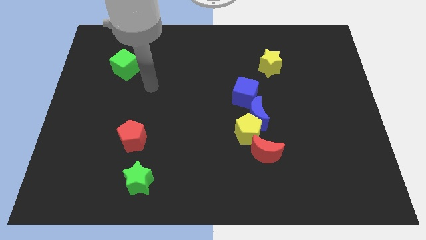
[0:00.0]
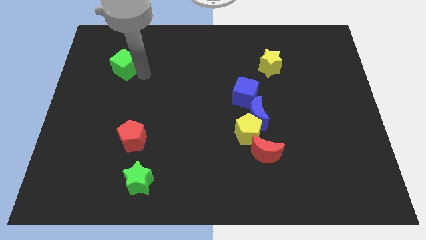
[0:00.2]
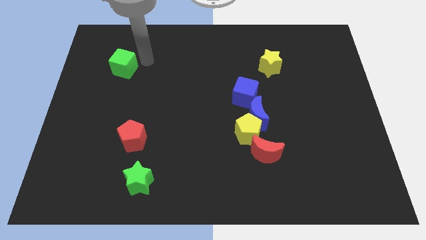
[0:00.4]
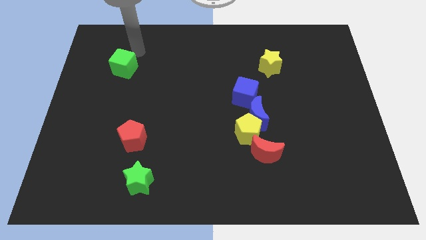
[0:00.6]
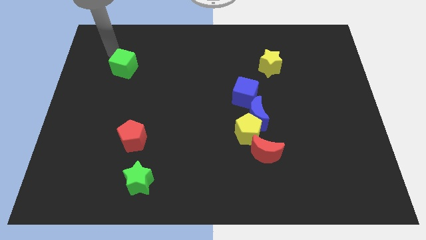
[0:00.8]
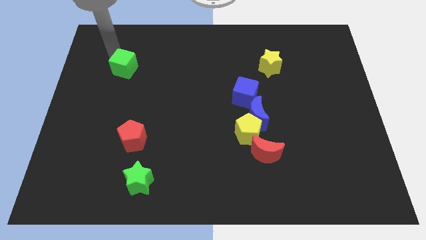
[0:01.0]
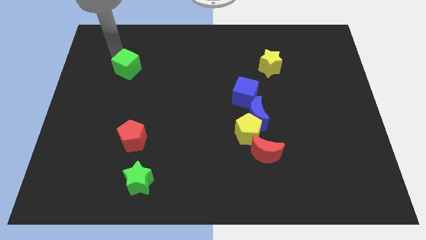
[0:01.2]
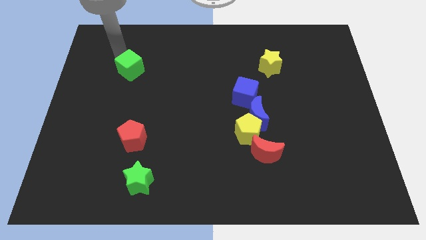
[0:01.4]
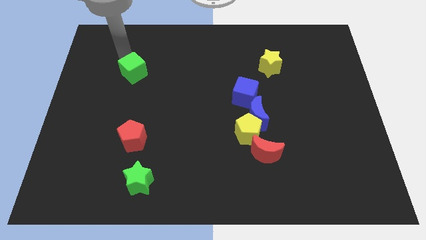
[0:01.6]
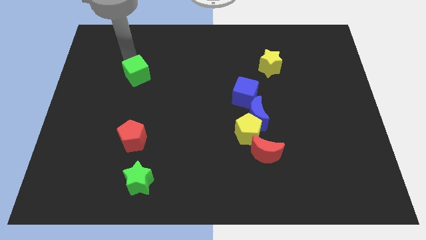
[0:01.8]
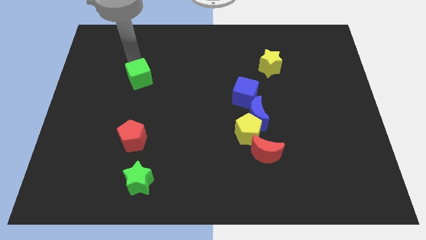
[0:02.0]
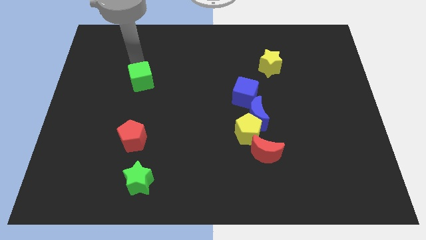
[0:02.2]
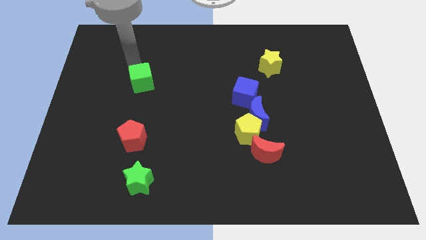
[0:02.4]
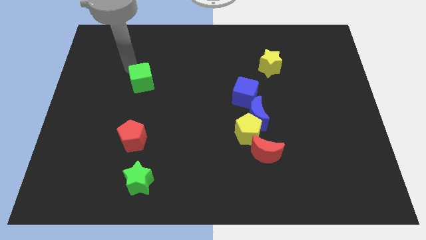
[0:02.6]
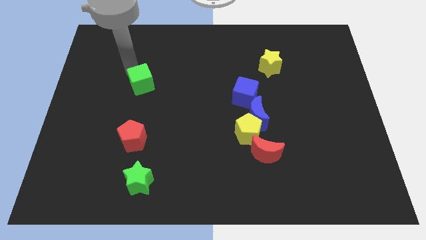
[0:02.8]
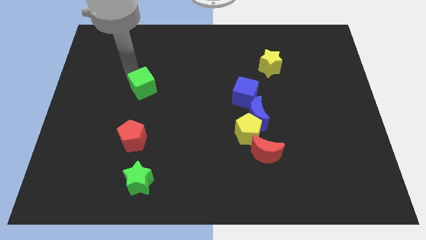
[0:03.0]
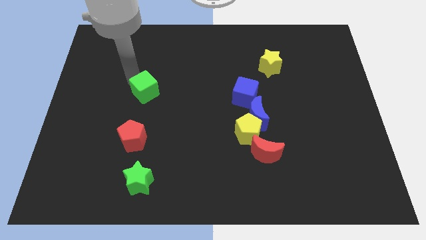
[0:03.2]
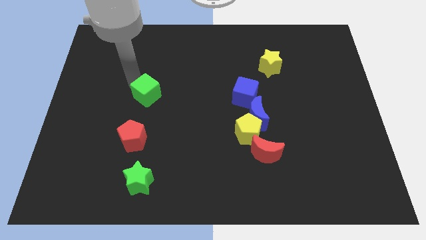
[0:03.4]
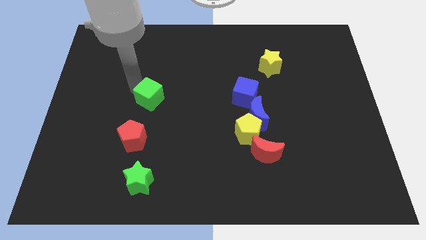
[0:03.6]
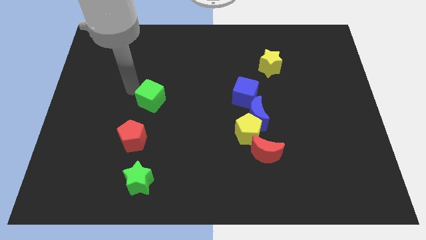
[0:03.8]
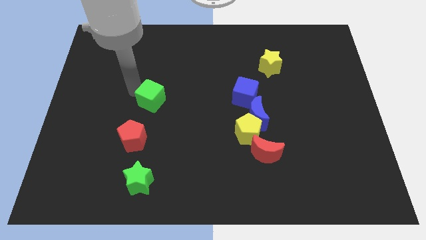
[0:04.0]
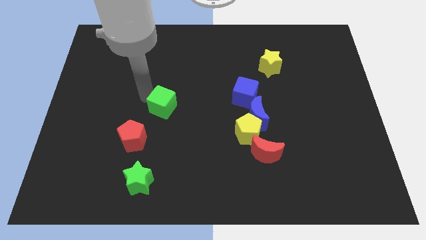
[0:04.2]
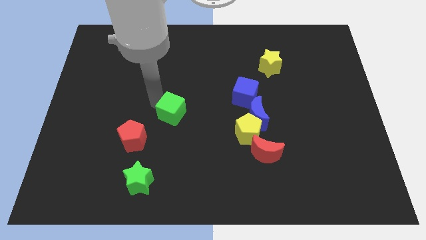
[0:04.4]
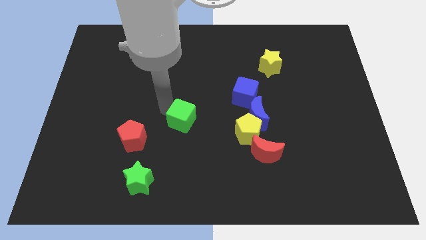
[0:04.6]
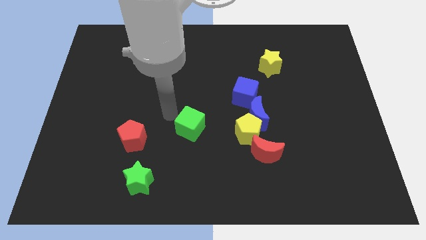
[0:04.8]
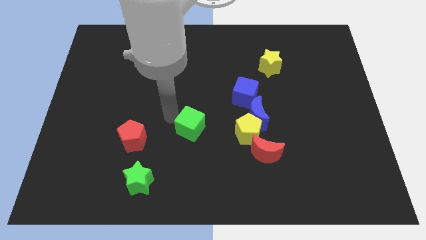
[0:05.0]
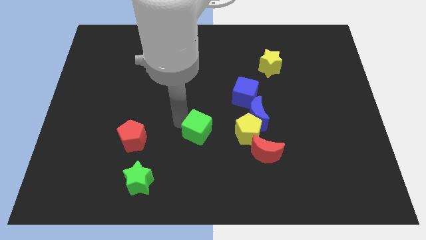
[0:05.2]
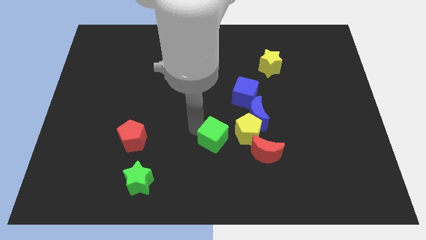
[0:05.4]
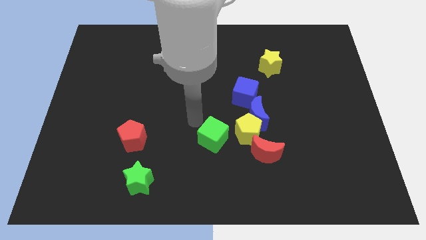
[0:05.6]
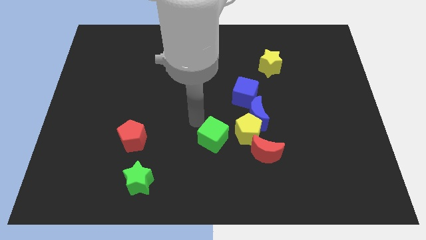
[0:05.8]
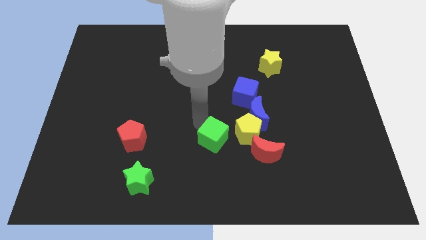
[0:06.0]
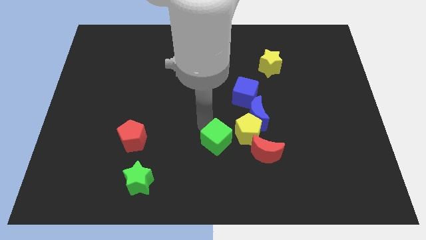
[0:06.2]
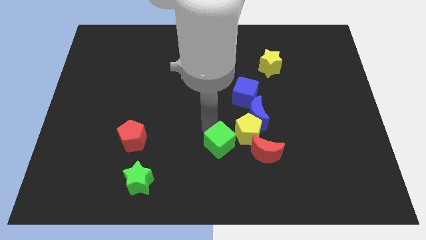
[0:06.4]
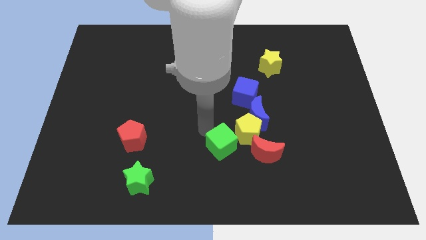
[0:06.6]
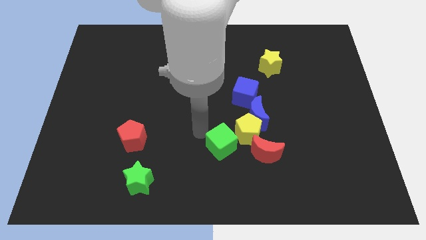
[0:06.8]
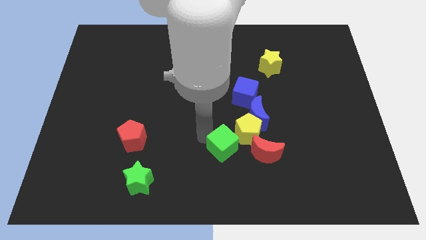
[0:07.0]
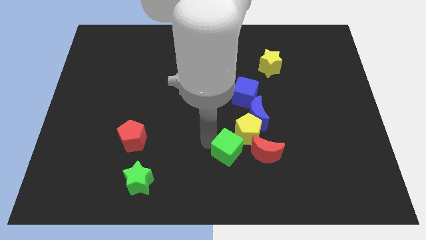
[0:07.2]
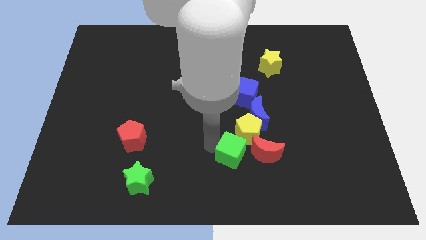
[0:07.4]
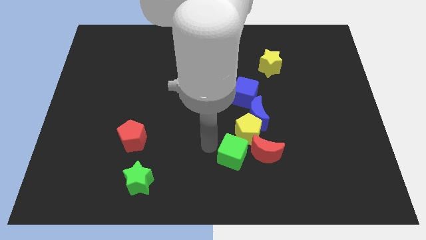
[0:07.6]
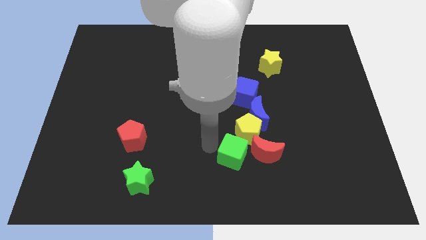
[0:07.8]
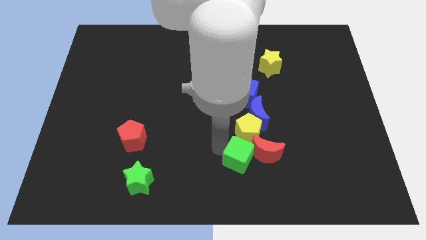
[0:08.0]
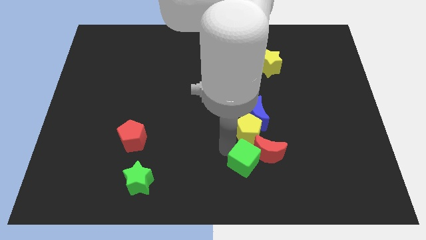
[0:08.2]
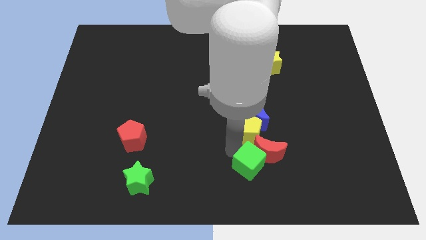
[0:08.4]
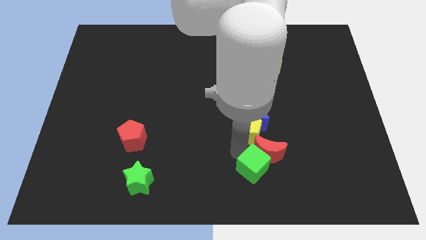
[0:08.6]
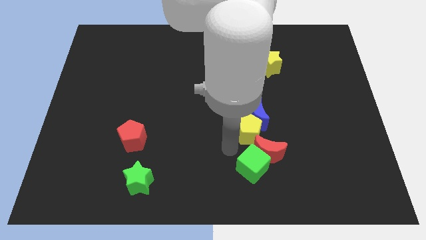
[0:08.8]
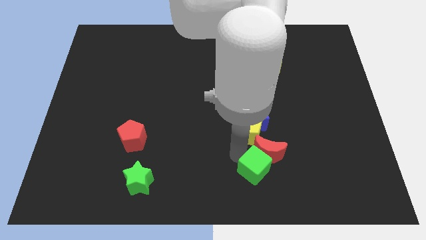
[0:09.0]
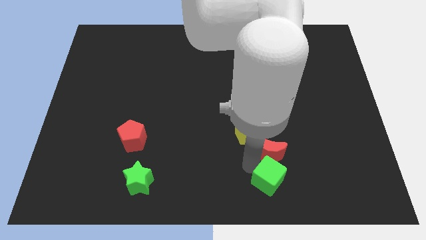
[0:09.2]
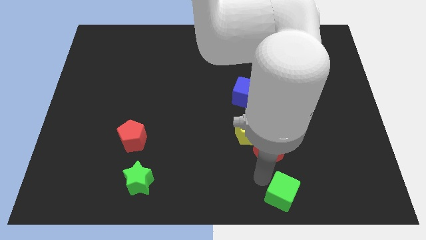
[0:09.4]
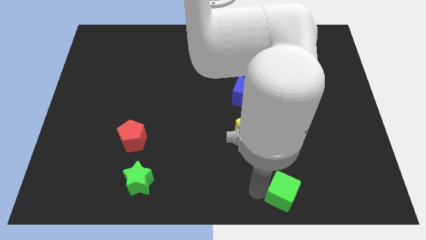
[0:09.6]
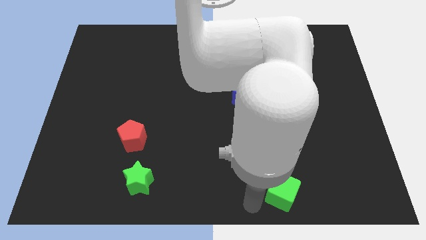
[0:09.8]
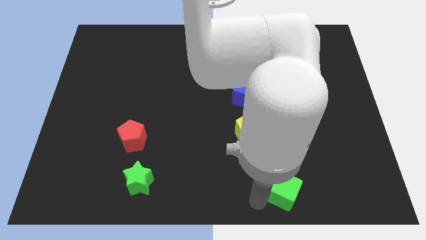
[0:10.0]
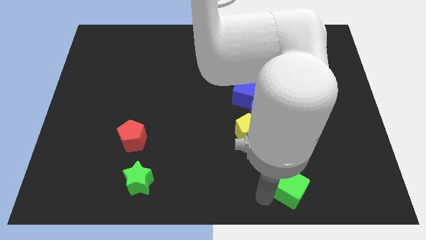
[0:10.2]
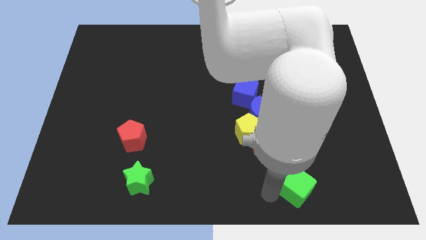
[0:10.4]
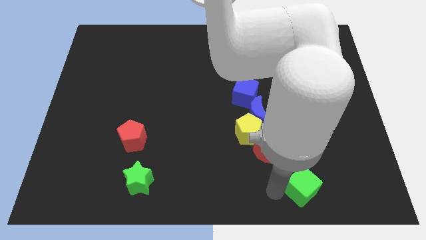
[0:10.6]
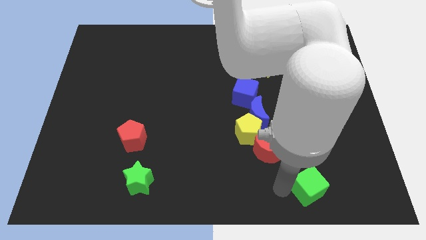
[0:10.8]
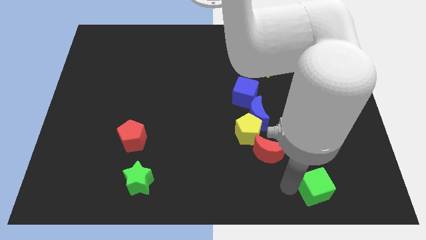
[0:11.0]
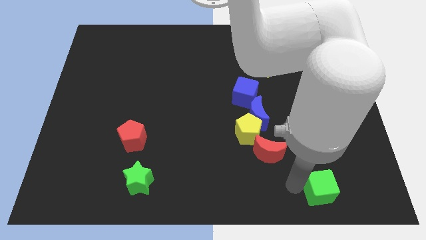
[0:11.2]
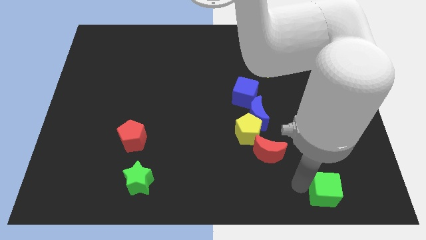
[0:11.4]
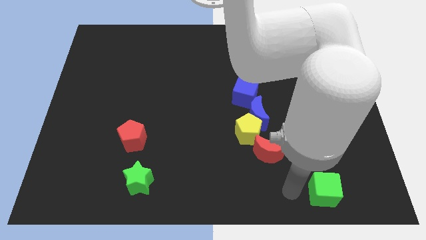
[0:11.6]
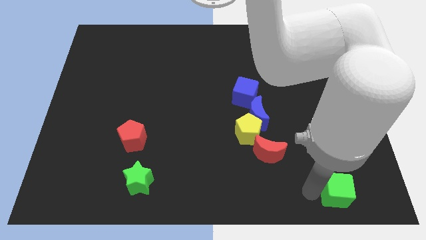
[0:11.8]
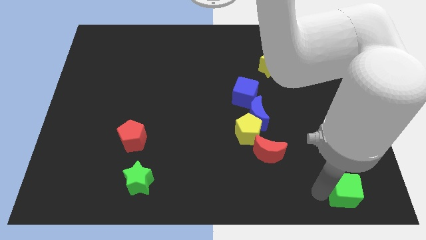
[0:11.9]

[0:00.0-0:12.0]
slide the green cube to the lower right corner
